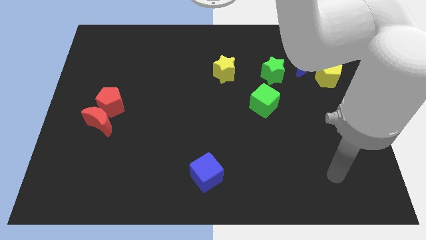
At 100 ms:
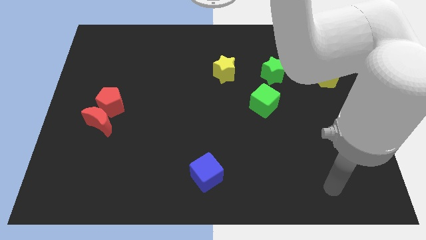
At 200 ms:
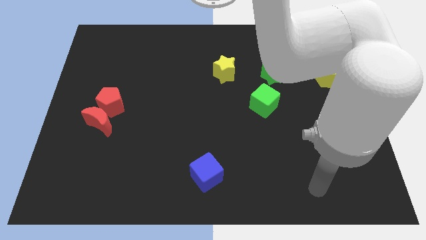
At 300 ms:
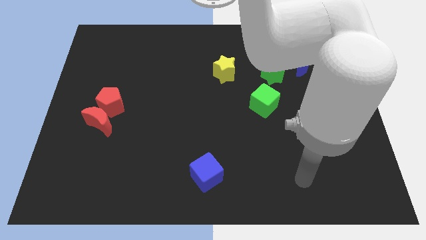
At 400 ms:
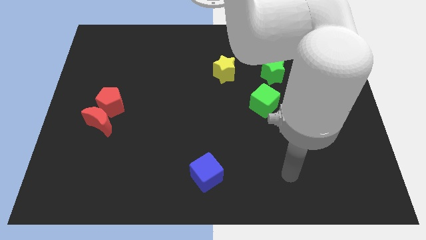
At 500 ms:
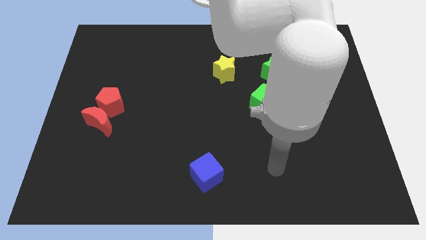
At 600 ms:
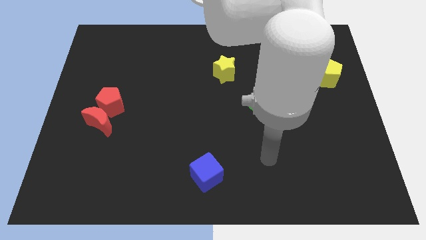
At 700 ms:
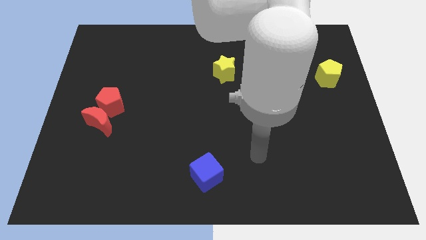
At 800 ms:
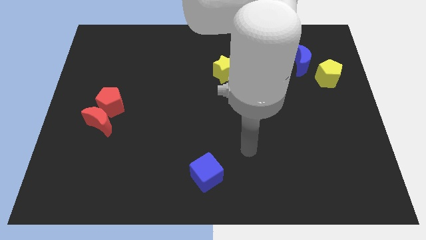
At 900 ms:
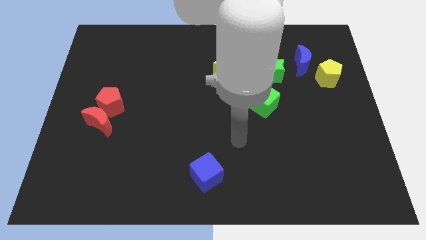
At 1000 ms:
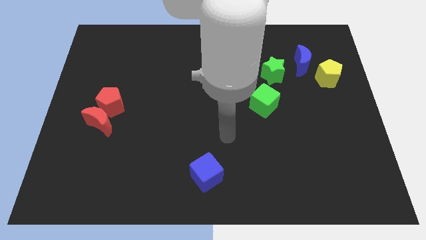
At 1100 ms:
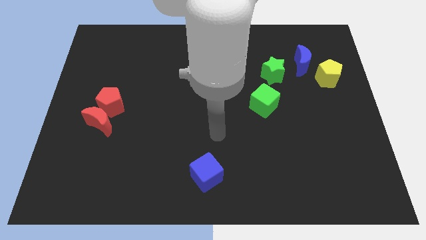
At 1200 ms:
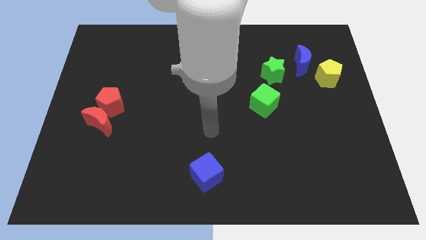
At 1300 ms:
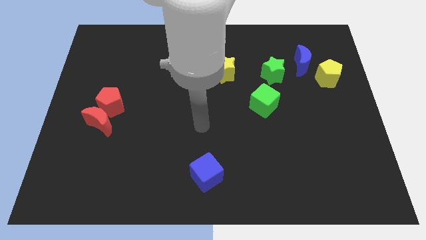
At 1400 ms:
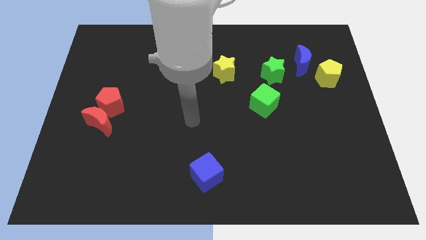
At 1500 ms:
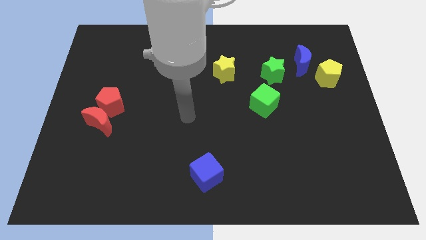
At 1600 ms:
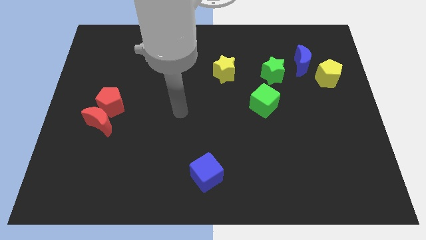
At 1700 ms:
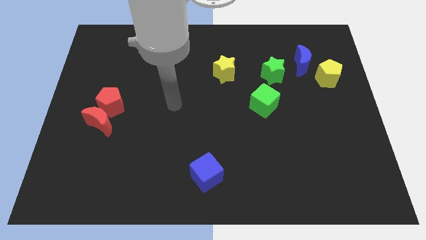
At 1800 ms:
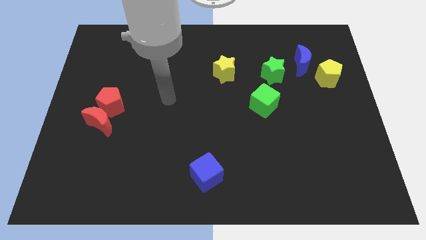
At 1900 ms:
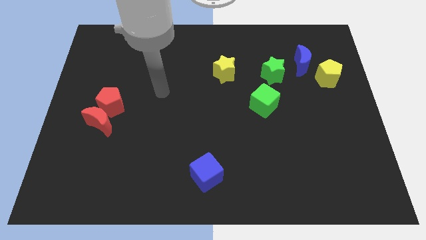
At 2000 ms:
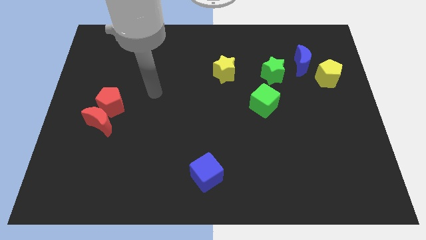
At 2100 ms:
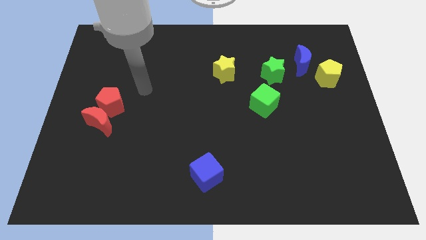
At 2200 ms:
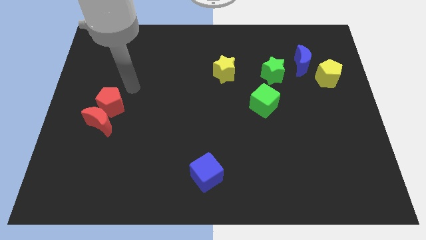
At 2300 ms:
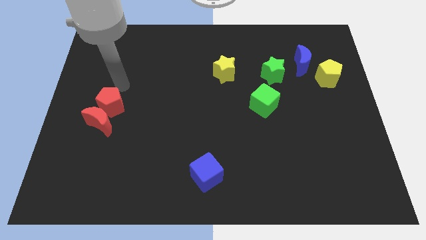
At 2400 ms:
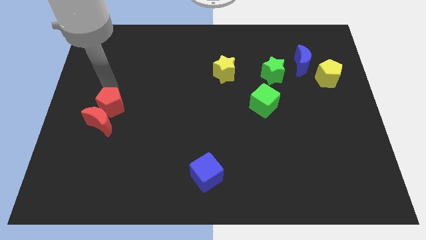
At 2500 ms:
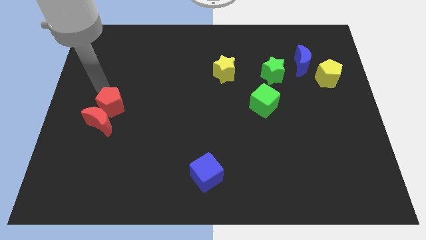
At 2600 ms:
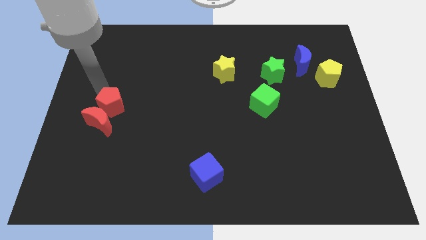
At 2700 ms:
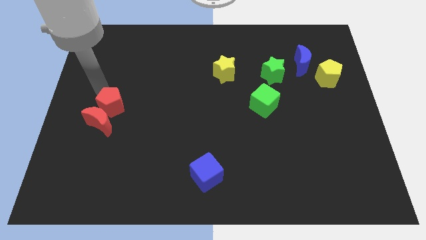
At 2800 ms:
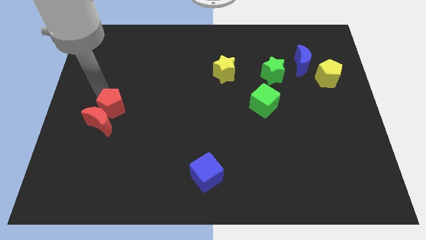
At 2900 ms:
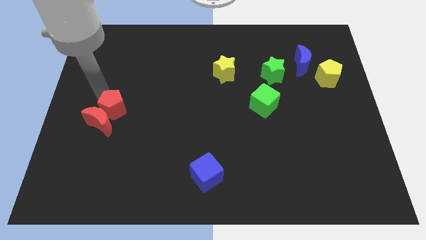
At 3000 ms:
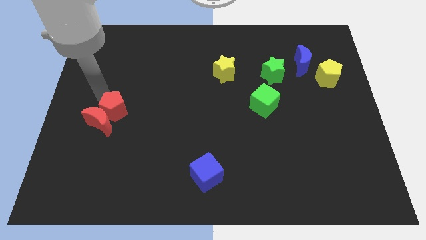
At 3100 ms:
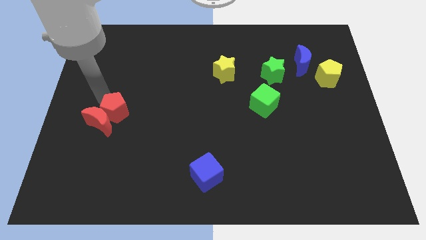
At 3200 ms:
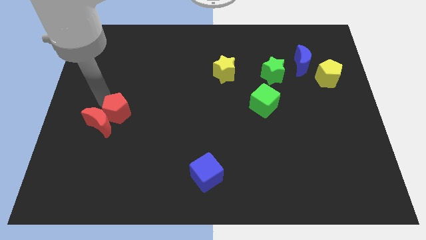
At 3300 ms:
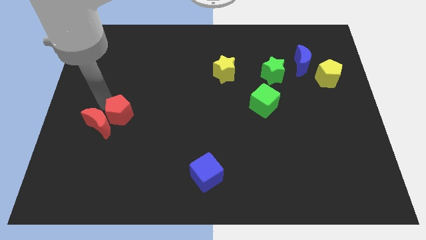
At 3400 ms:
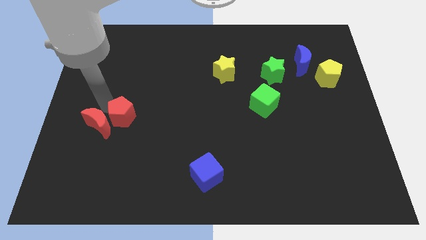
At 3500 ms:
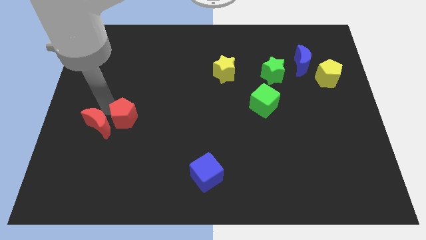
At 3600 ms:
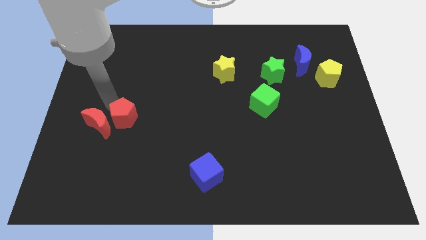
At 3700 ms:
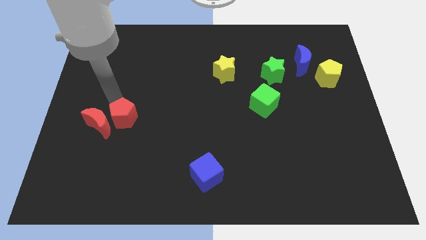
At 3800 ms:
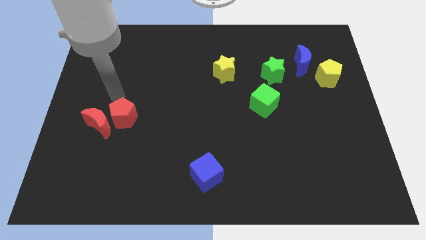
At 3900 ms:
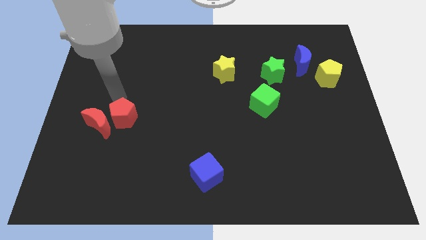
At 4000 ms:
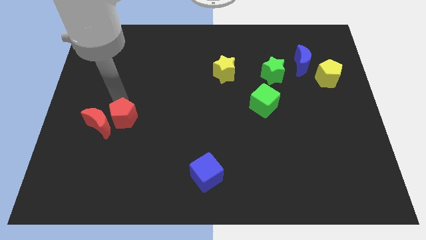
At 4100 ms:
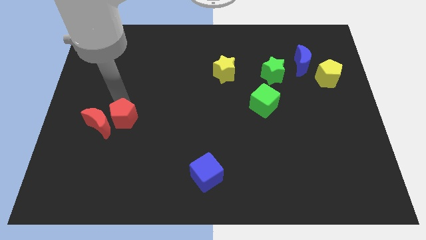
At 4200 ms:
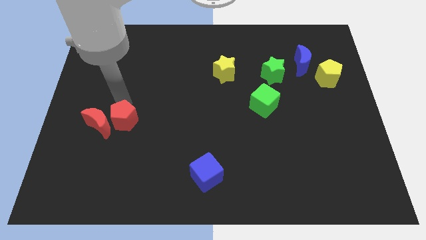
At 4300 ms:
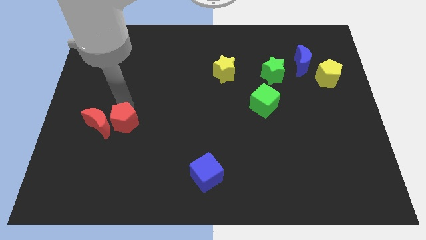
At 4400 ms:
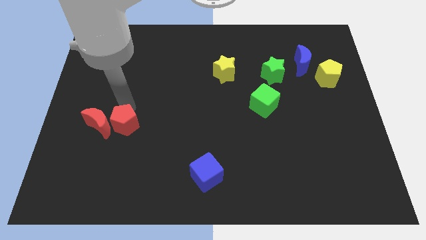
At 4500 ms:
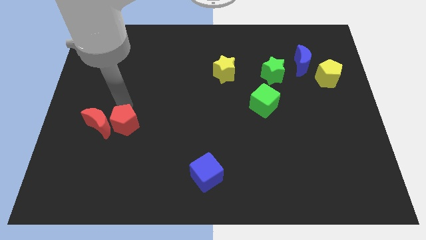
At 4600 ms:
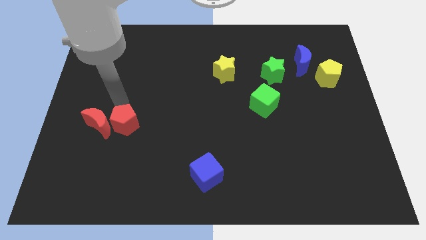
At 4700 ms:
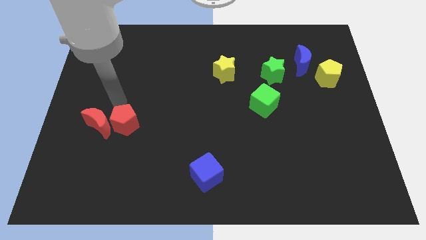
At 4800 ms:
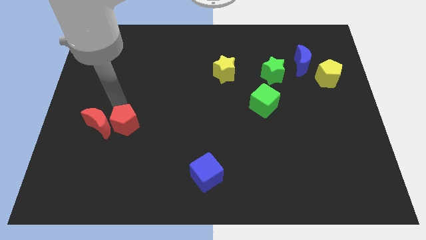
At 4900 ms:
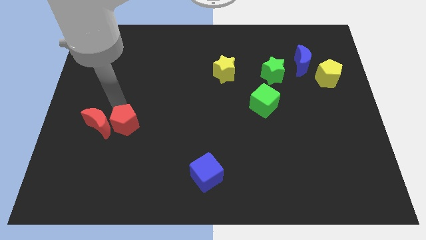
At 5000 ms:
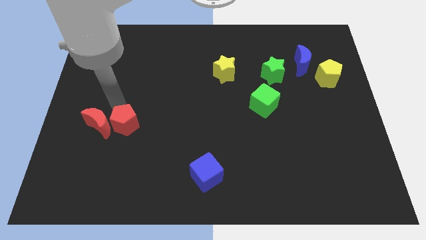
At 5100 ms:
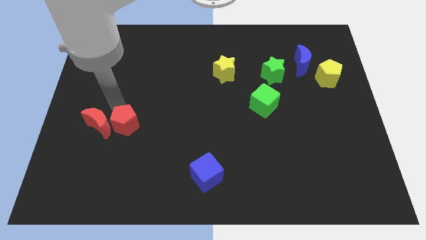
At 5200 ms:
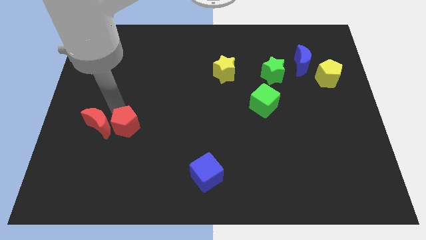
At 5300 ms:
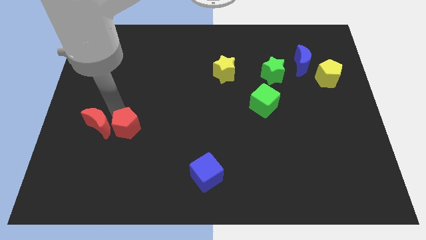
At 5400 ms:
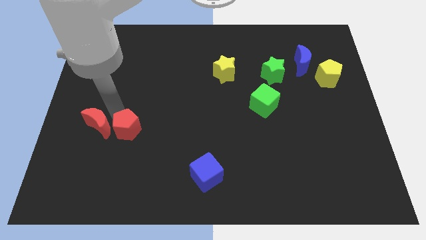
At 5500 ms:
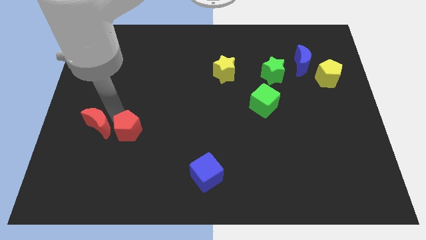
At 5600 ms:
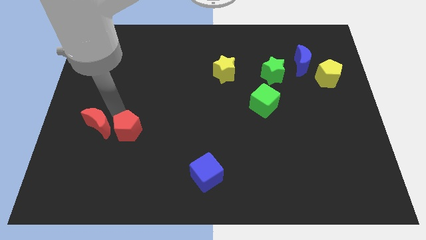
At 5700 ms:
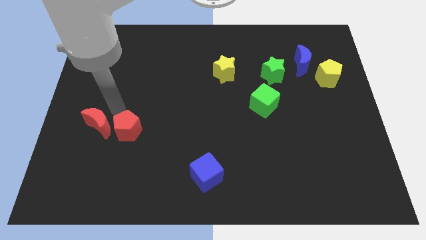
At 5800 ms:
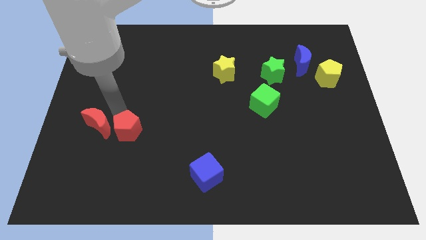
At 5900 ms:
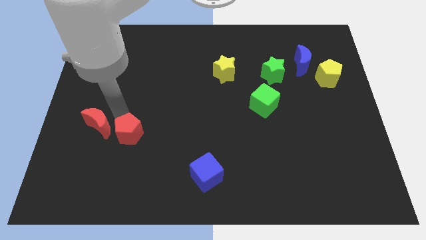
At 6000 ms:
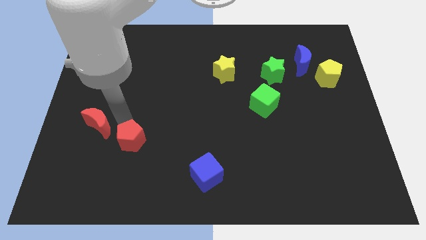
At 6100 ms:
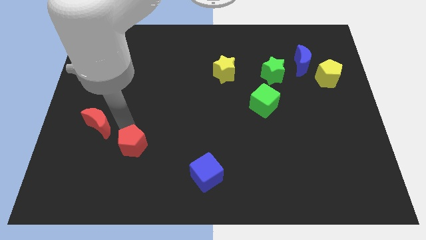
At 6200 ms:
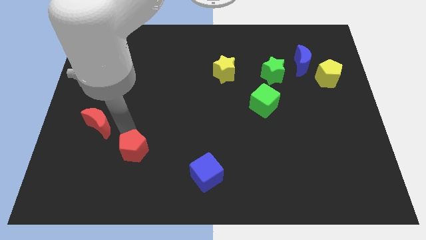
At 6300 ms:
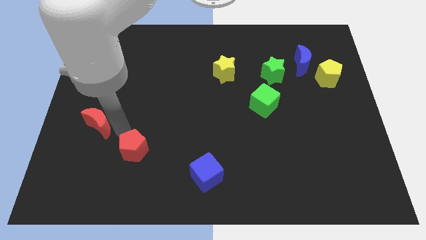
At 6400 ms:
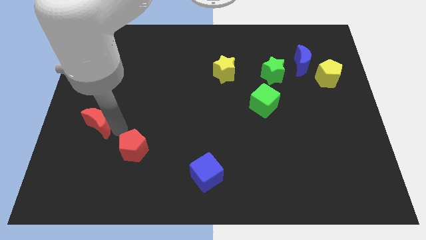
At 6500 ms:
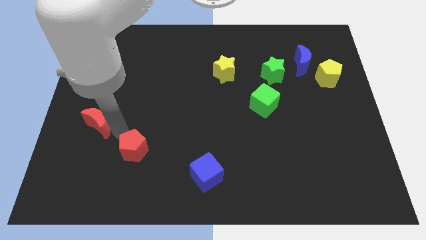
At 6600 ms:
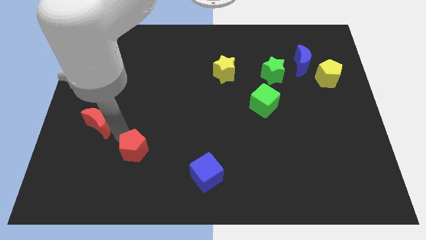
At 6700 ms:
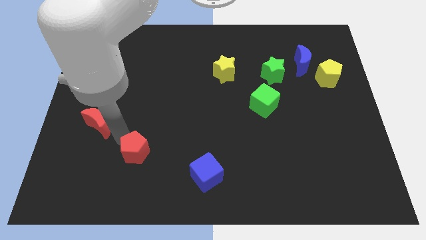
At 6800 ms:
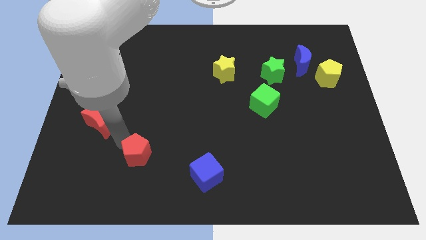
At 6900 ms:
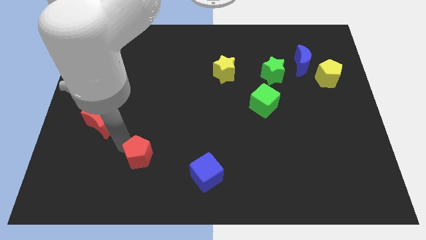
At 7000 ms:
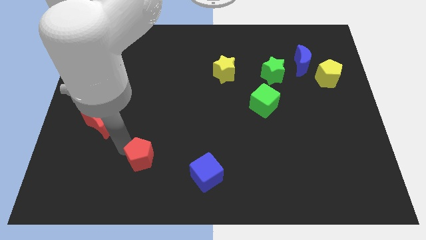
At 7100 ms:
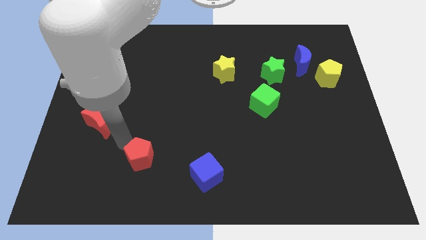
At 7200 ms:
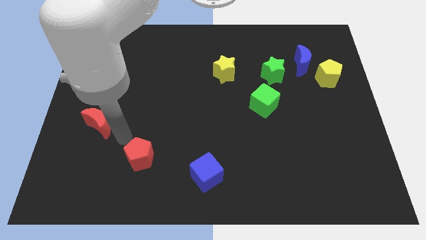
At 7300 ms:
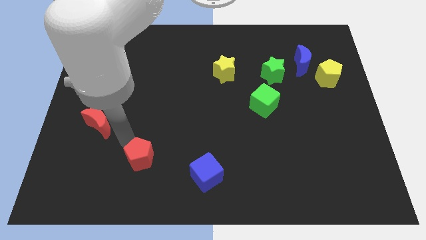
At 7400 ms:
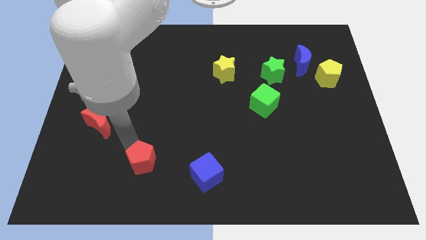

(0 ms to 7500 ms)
push the red pentagon just left of the blue cube
